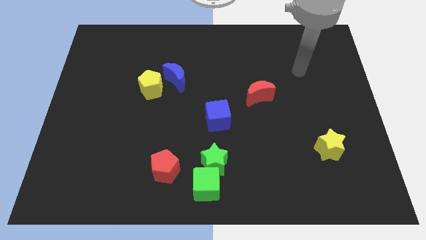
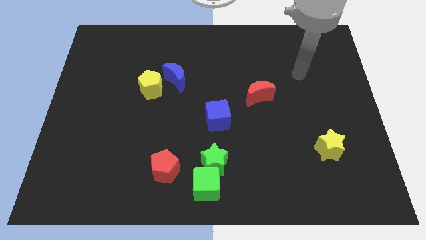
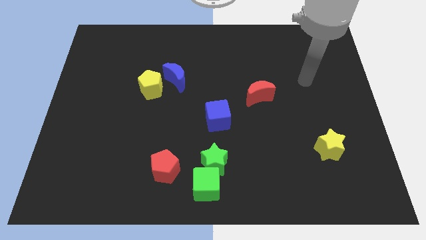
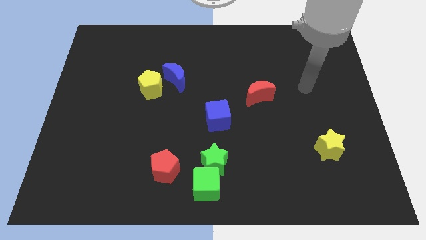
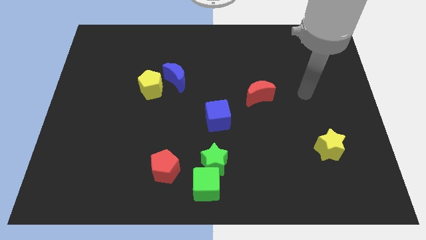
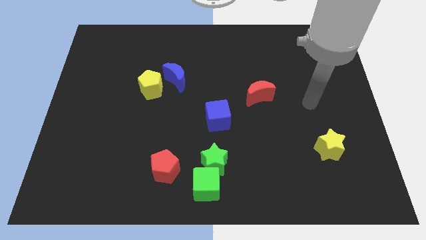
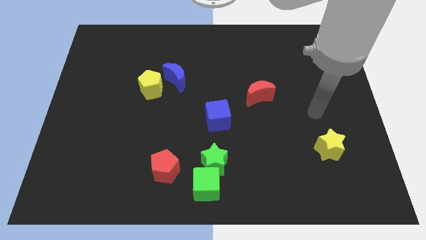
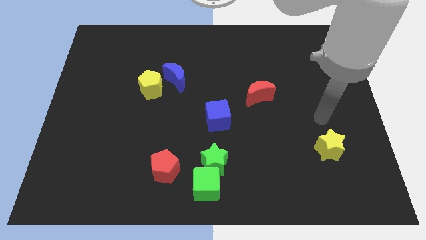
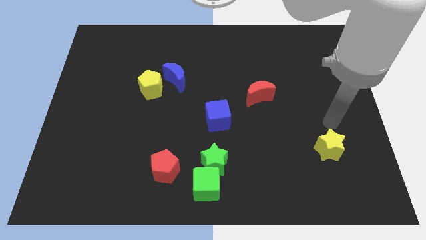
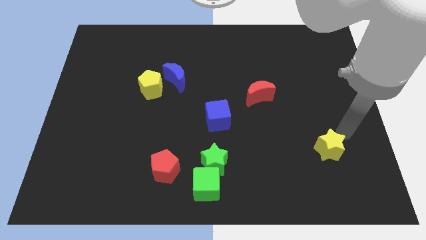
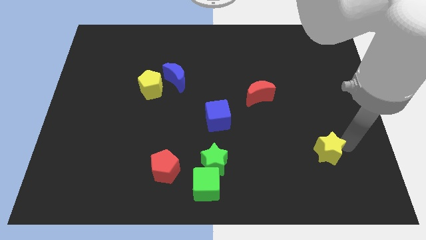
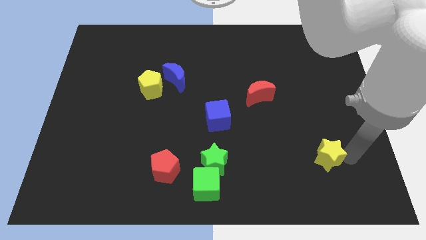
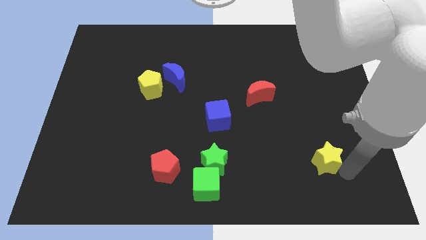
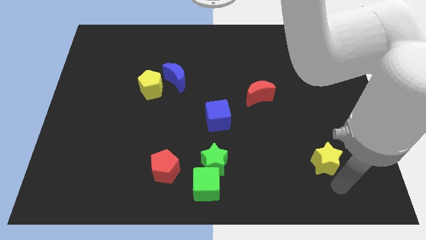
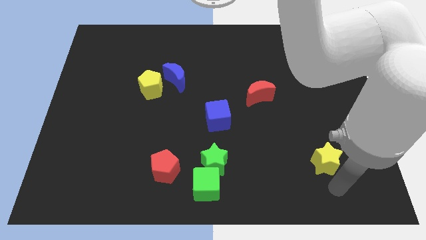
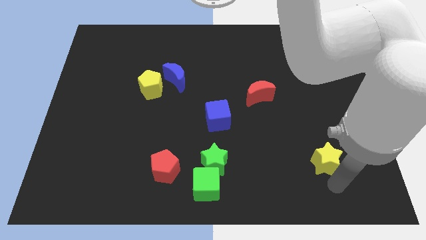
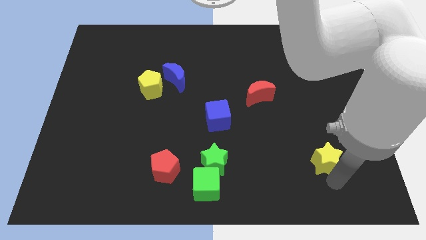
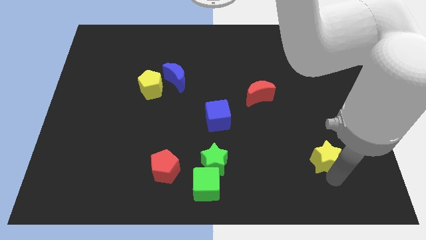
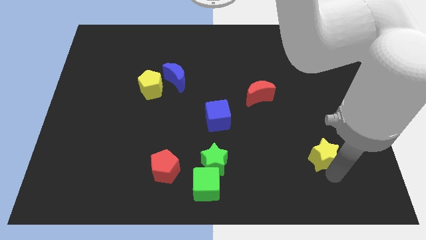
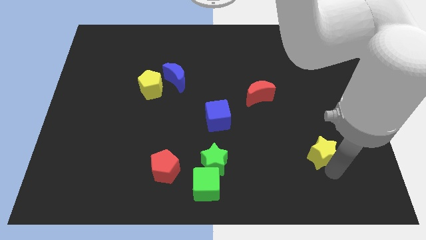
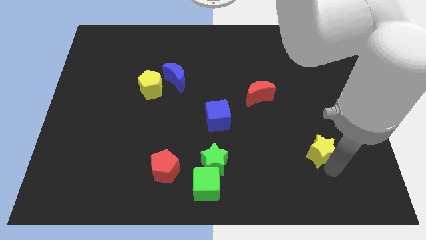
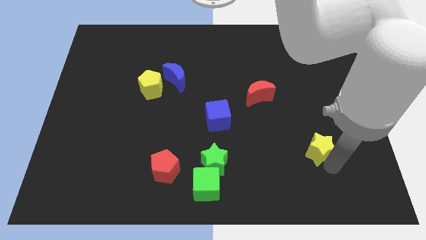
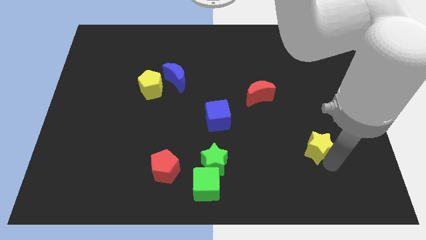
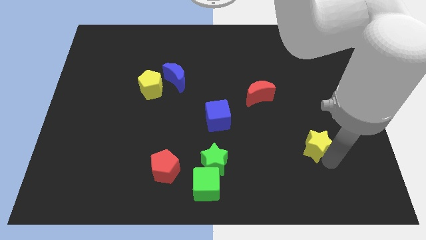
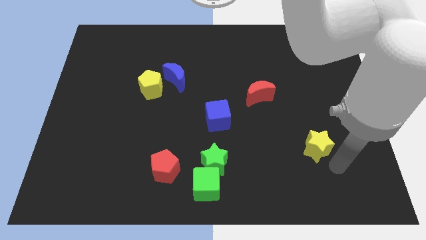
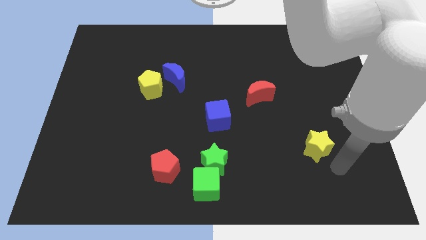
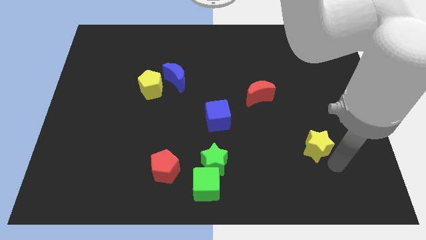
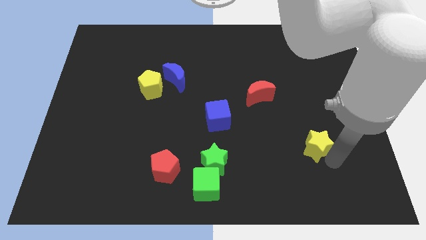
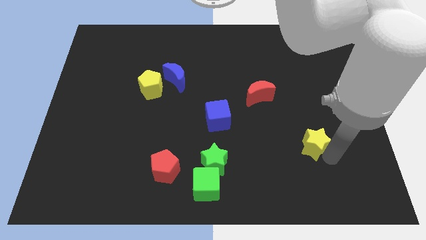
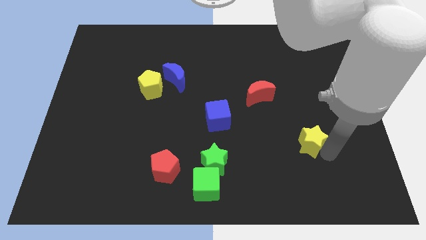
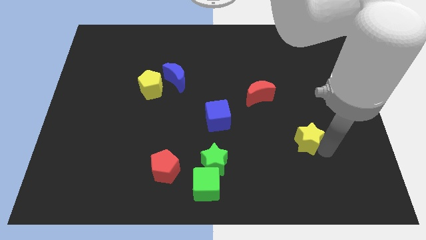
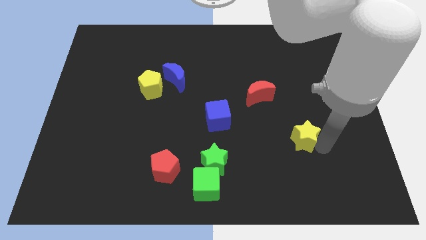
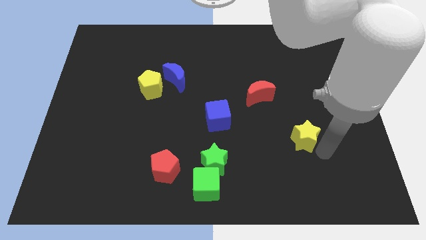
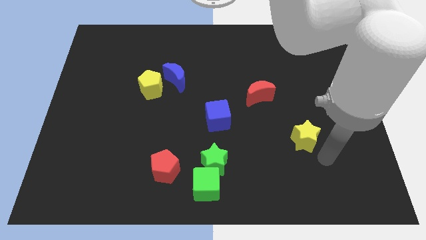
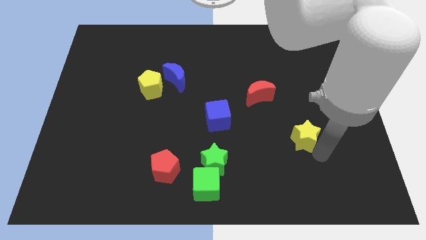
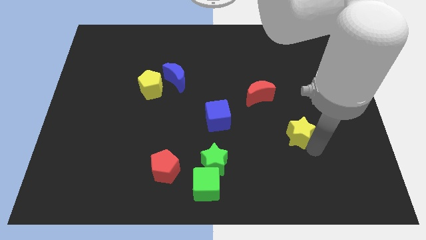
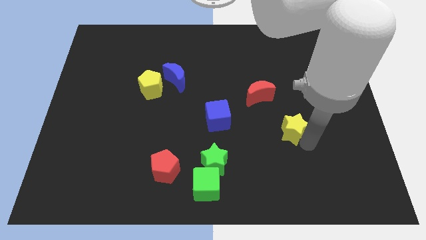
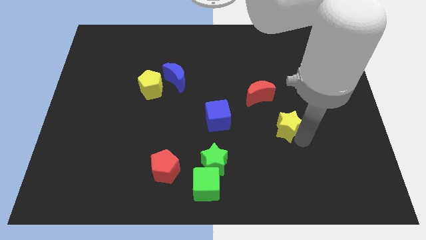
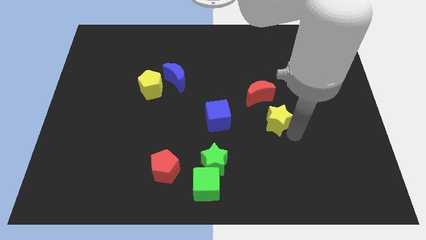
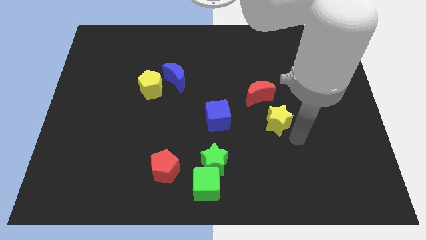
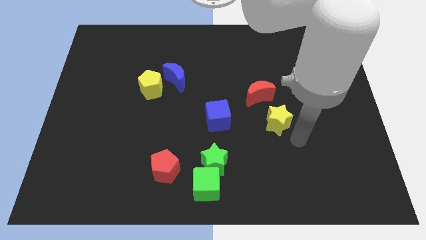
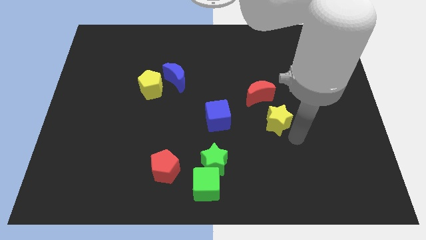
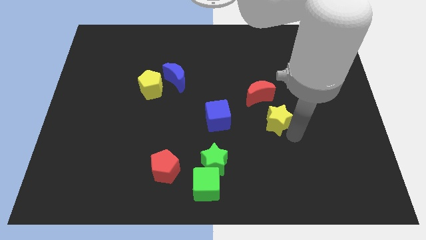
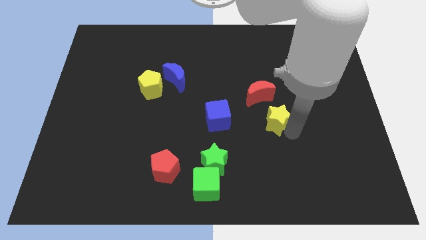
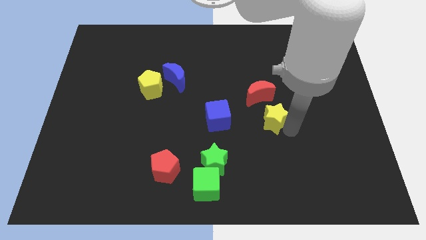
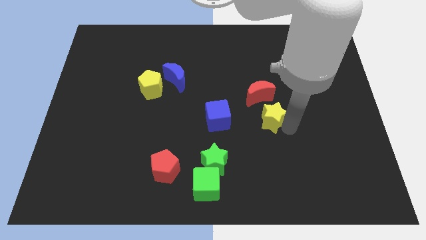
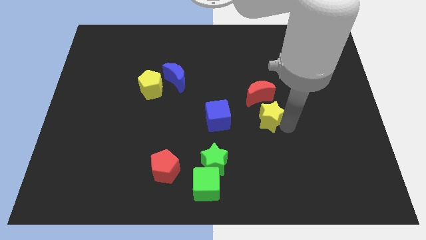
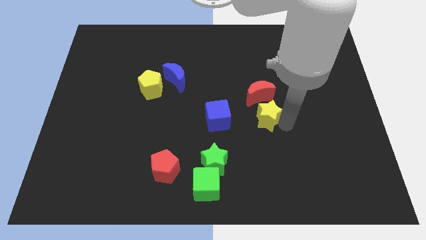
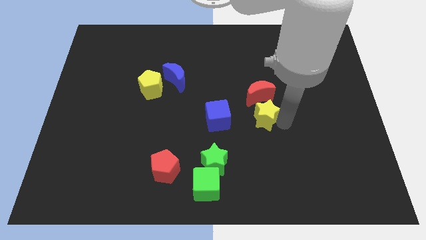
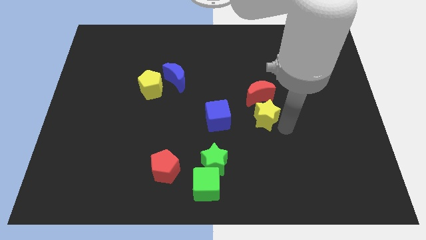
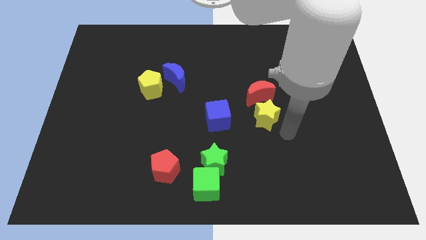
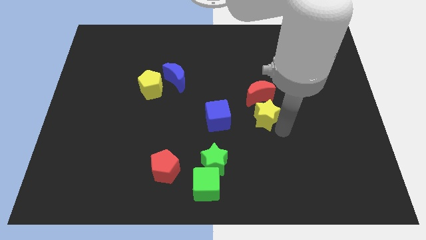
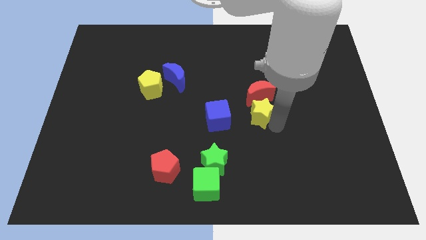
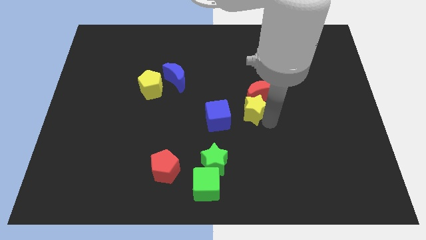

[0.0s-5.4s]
move the yellow star to the top right of the blue cube

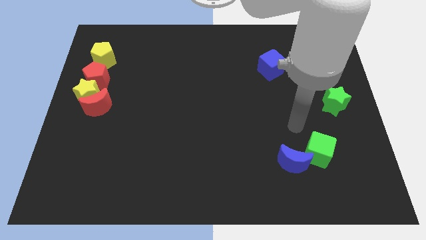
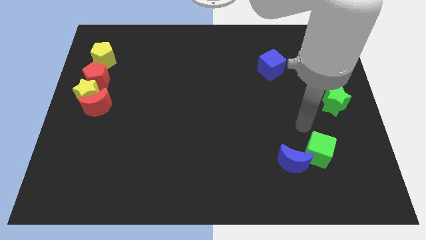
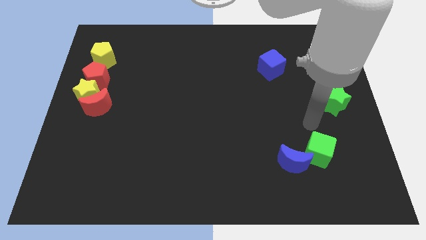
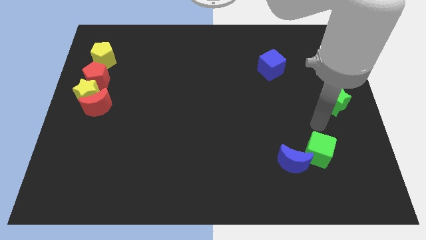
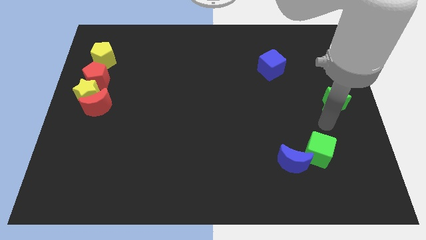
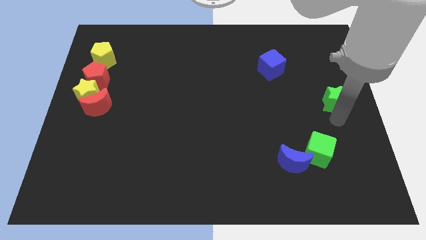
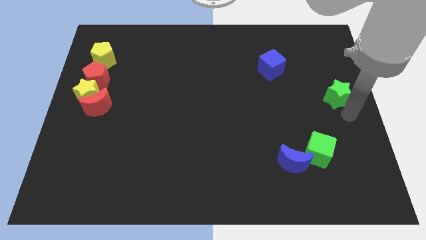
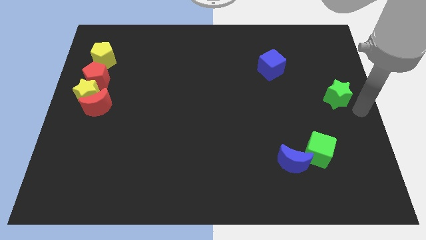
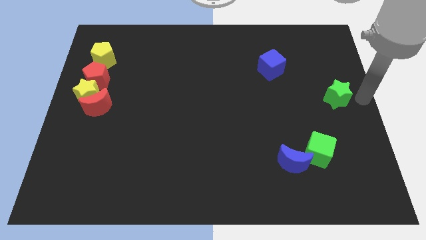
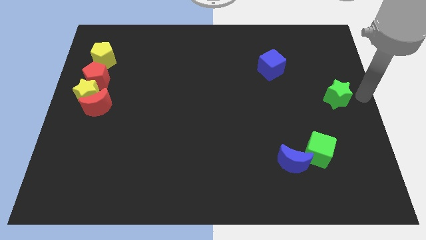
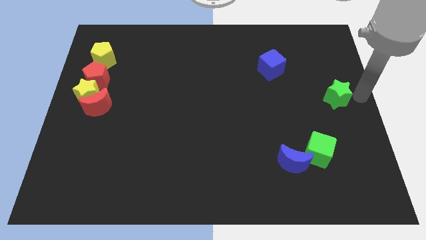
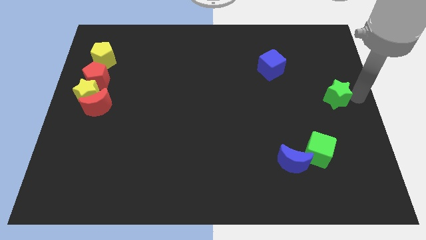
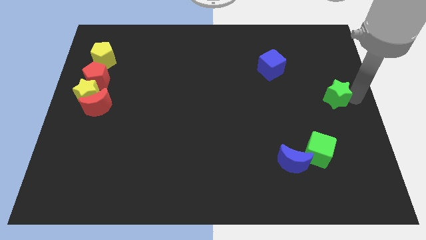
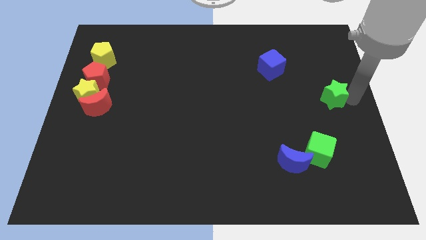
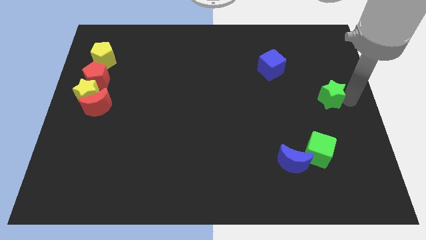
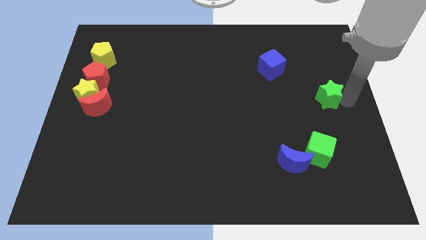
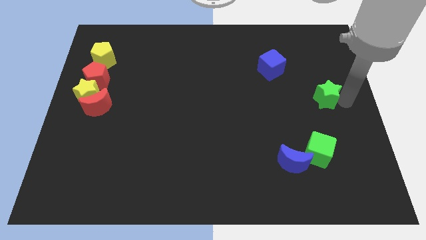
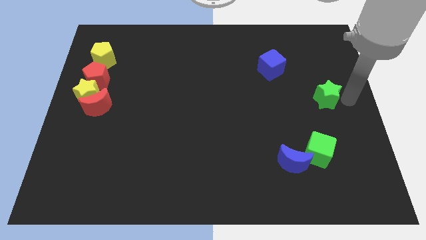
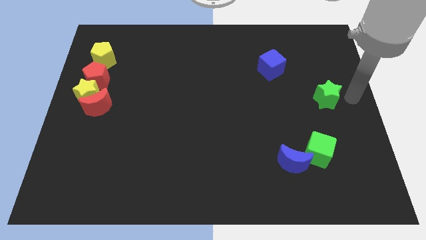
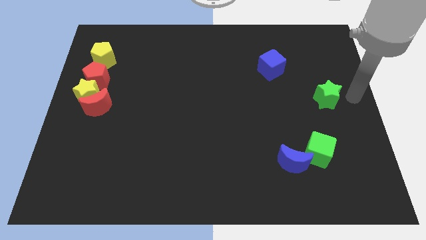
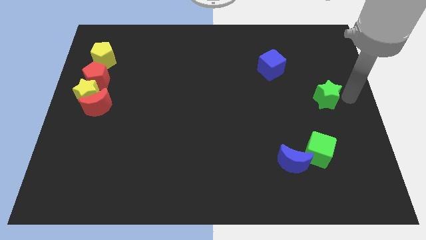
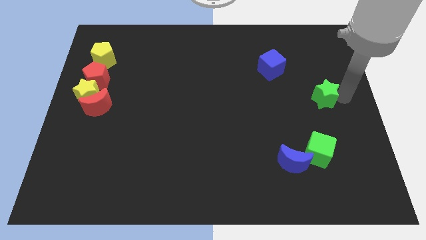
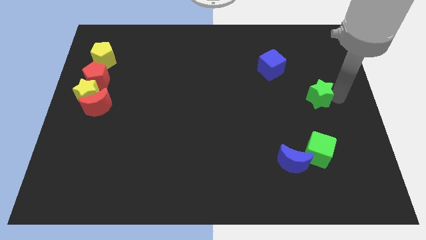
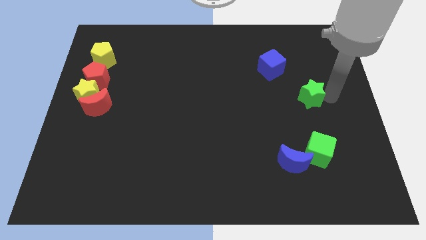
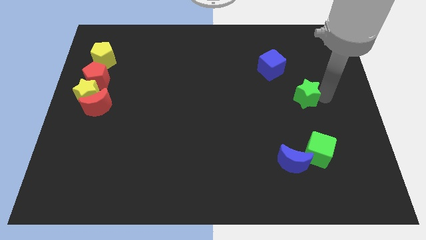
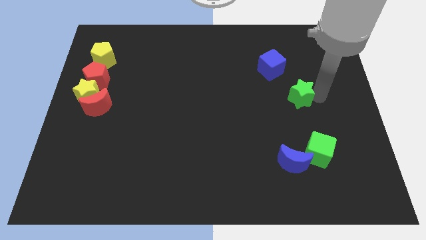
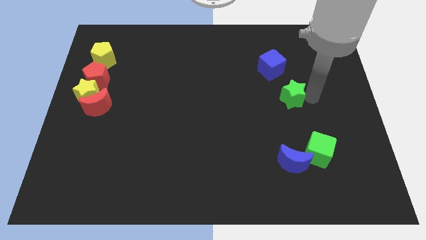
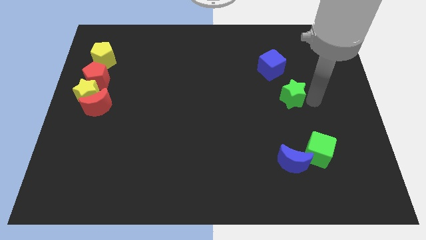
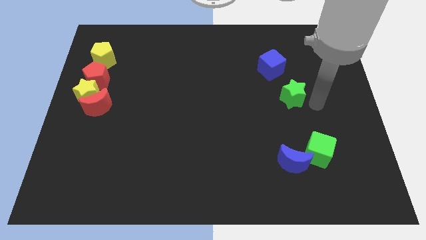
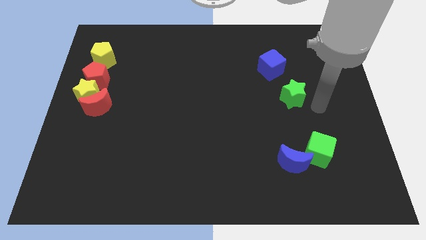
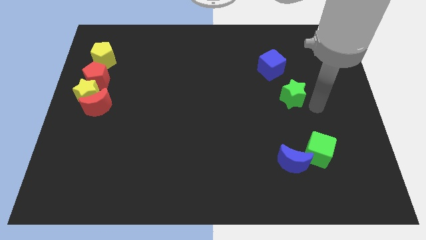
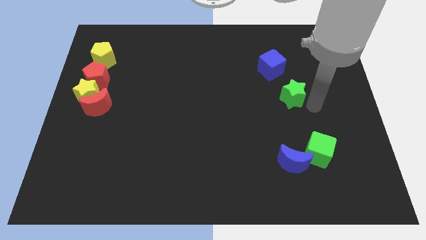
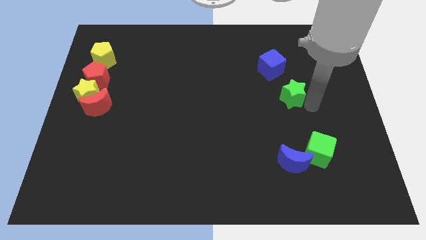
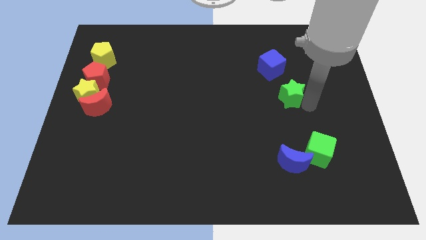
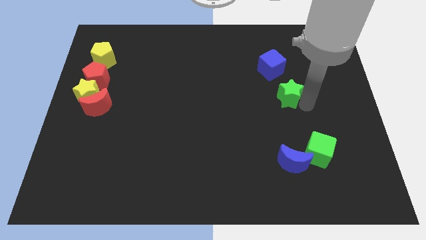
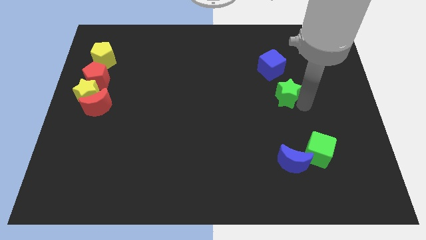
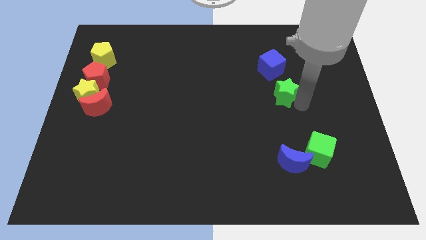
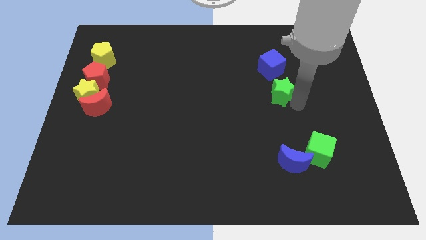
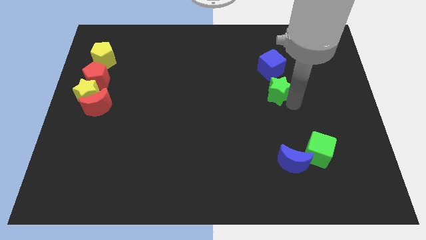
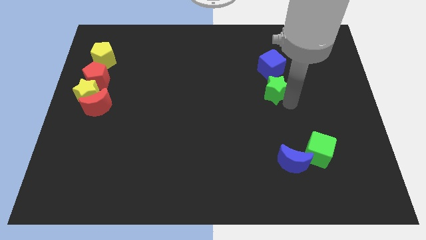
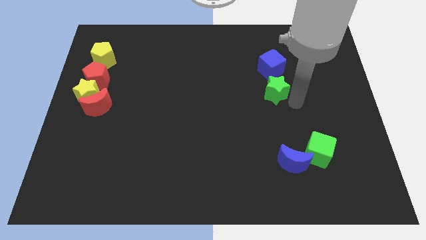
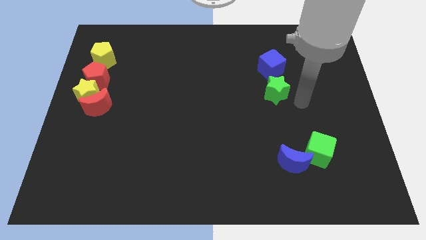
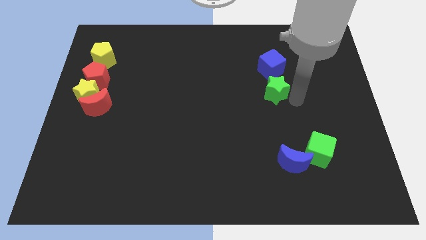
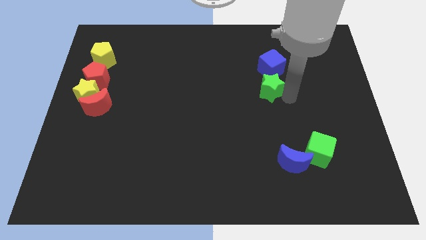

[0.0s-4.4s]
move the green star to the bottom left of the blue cube
